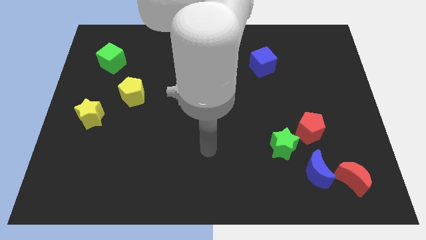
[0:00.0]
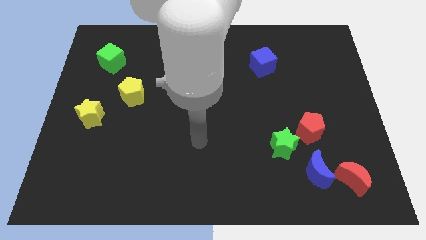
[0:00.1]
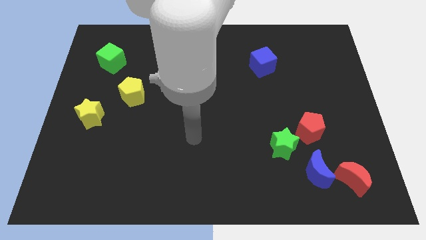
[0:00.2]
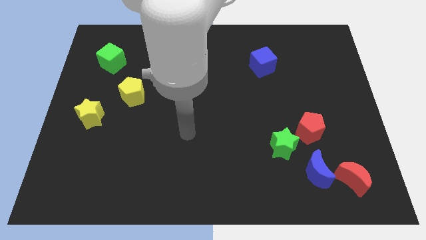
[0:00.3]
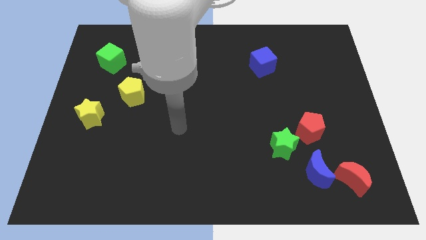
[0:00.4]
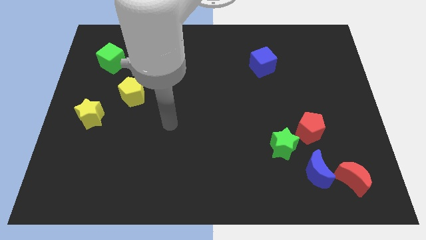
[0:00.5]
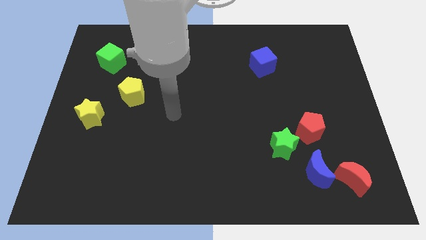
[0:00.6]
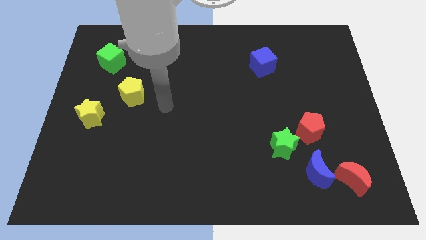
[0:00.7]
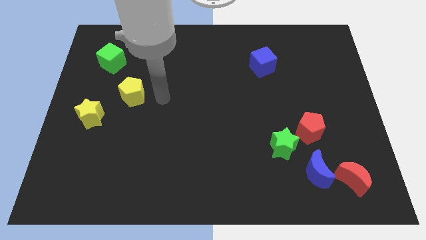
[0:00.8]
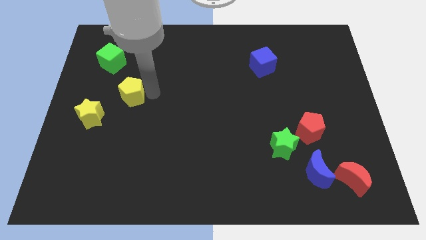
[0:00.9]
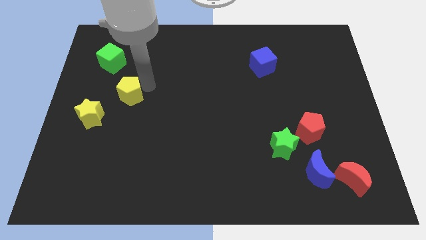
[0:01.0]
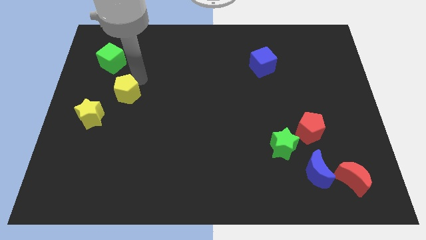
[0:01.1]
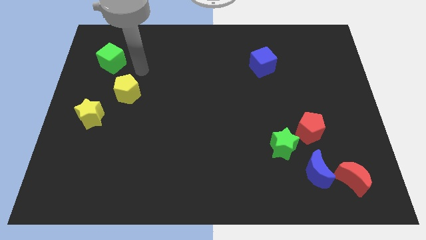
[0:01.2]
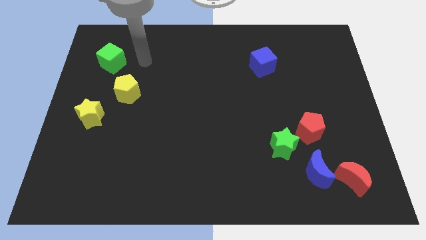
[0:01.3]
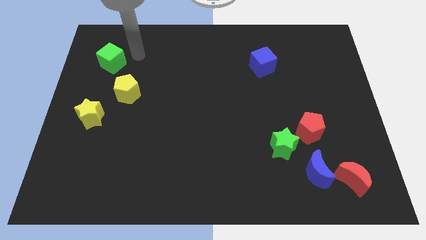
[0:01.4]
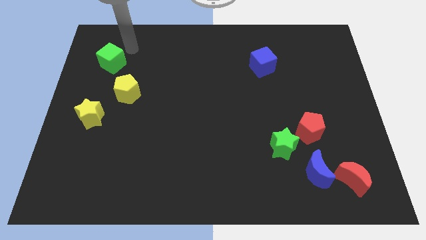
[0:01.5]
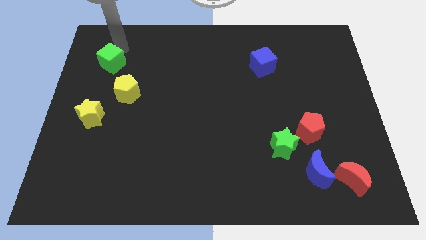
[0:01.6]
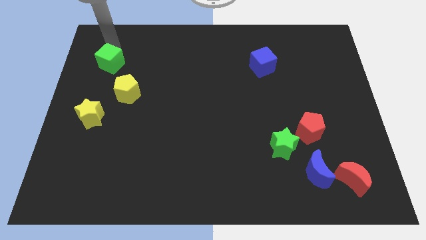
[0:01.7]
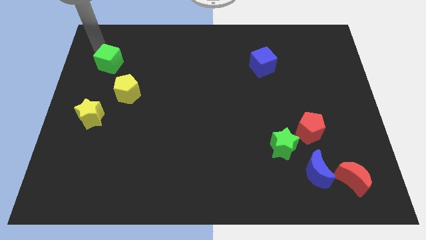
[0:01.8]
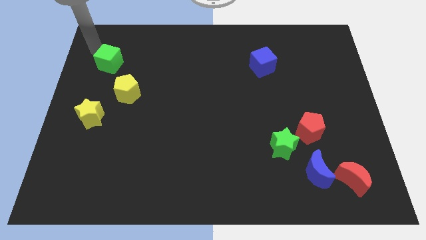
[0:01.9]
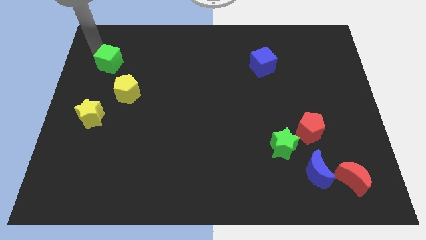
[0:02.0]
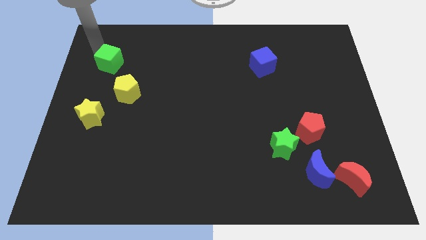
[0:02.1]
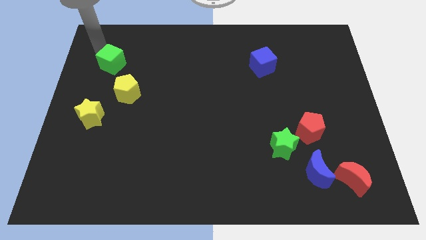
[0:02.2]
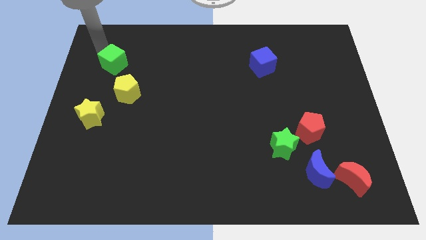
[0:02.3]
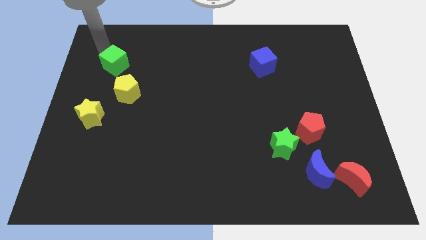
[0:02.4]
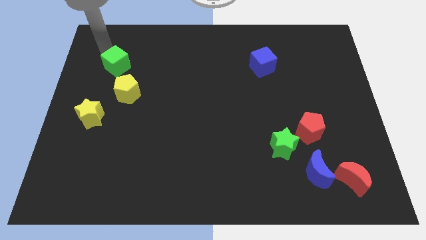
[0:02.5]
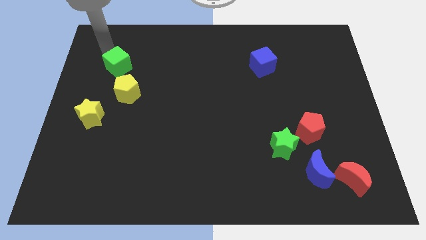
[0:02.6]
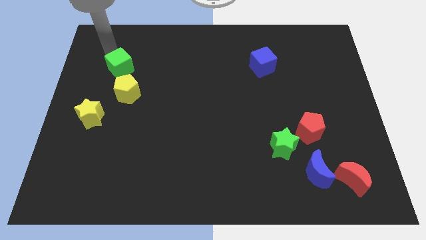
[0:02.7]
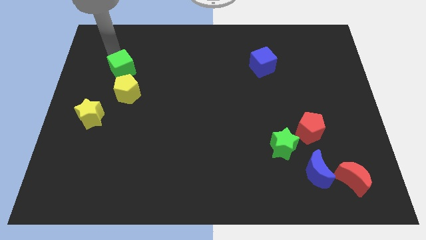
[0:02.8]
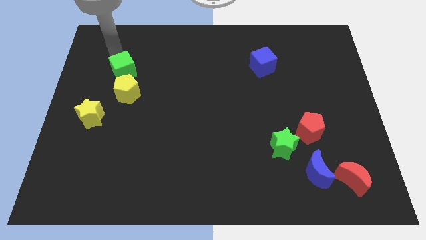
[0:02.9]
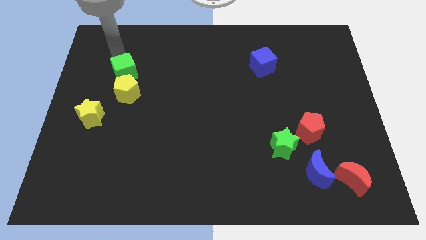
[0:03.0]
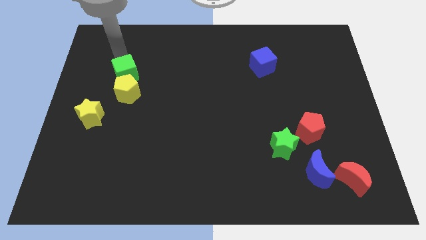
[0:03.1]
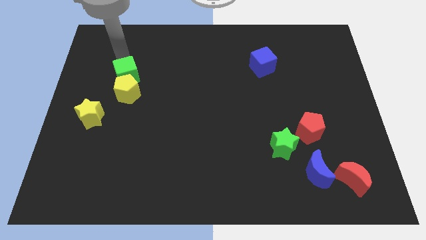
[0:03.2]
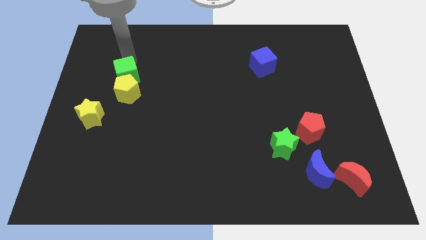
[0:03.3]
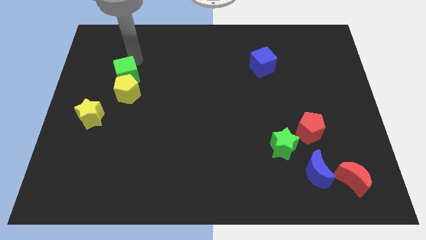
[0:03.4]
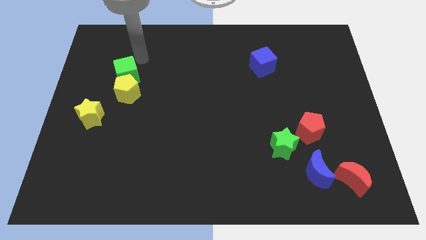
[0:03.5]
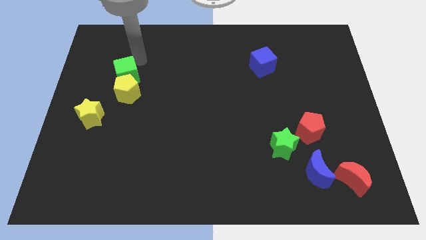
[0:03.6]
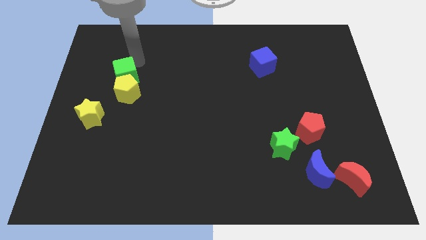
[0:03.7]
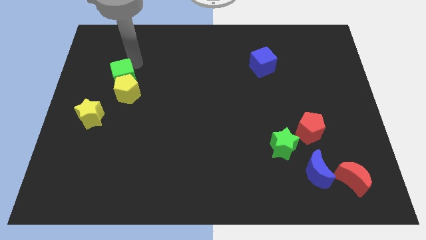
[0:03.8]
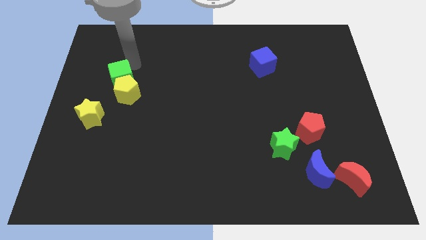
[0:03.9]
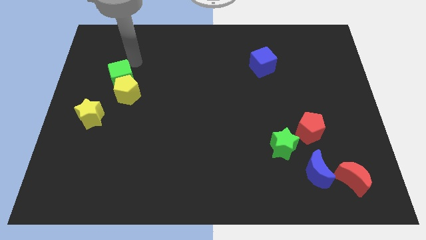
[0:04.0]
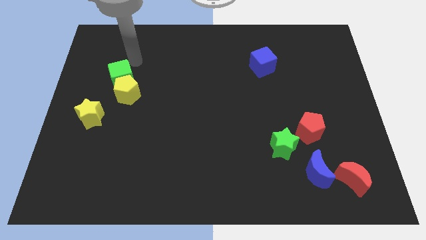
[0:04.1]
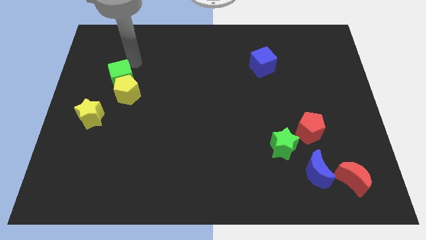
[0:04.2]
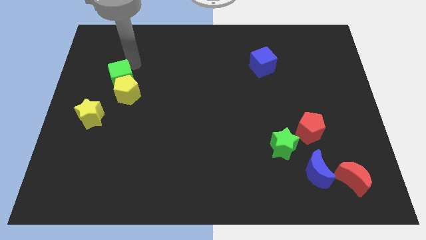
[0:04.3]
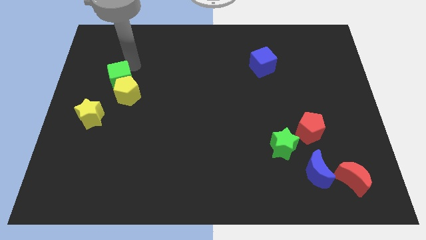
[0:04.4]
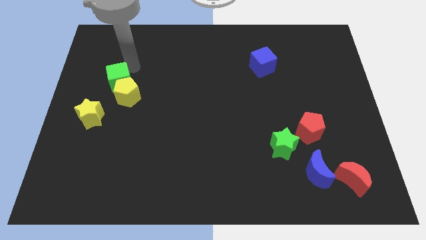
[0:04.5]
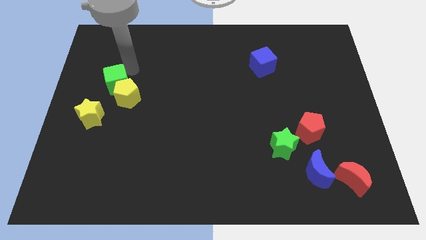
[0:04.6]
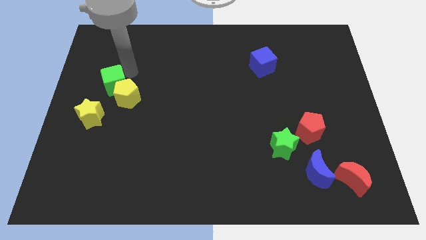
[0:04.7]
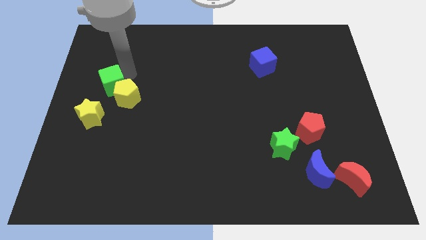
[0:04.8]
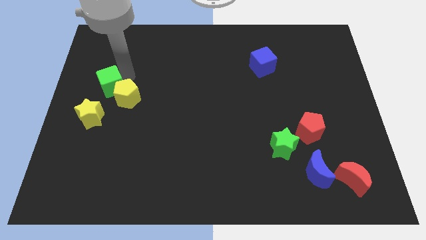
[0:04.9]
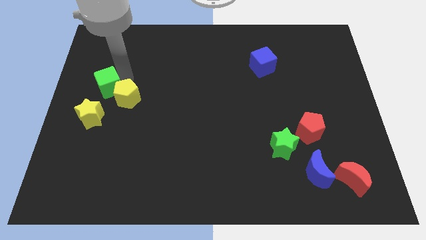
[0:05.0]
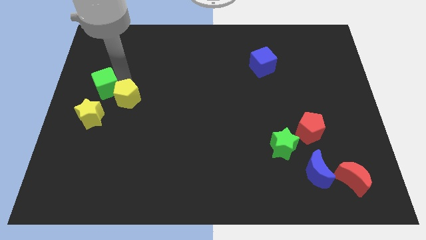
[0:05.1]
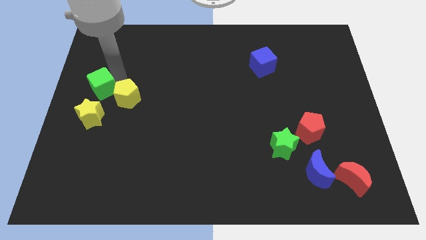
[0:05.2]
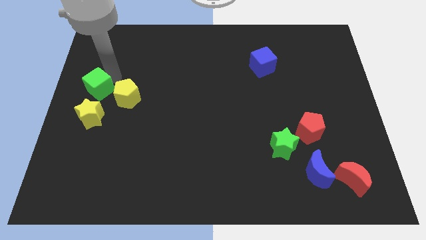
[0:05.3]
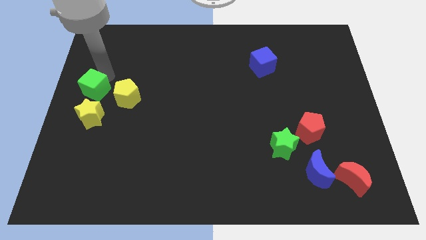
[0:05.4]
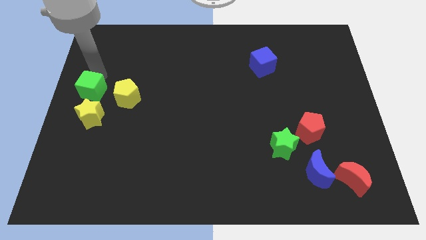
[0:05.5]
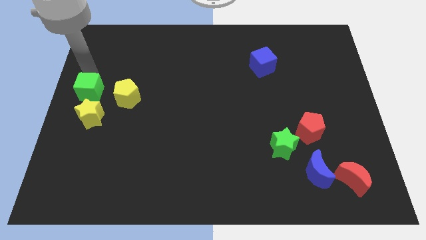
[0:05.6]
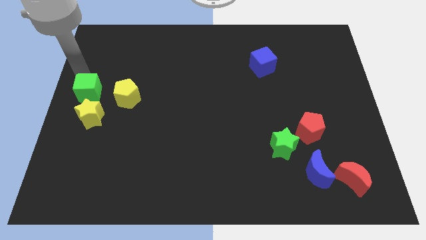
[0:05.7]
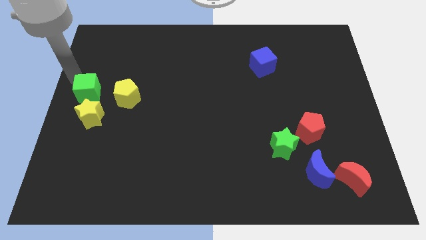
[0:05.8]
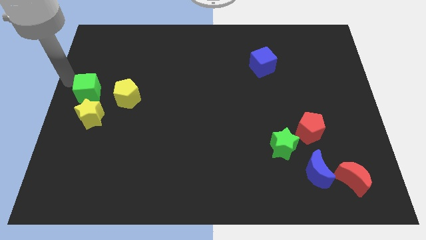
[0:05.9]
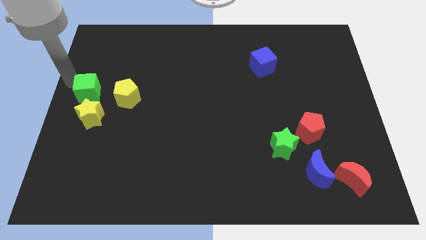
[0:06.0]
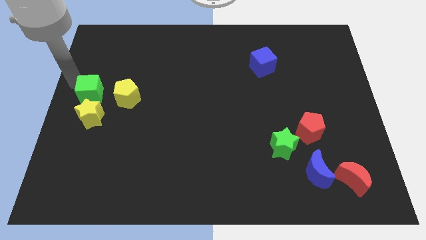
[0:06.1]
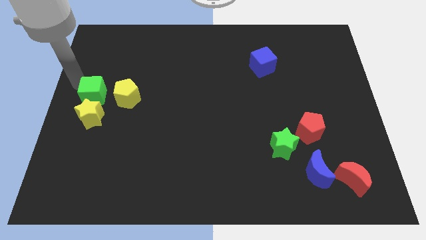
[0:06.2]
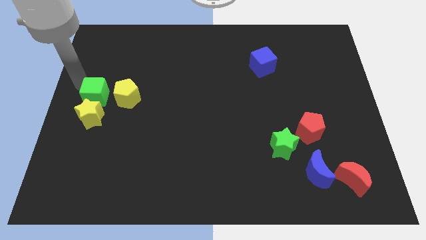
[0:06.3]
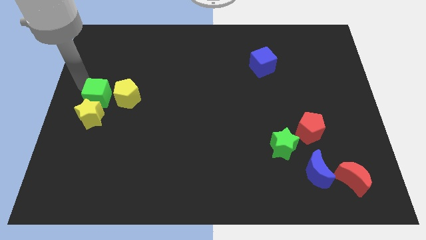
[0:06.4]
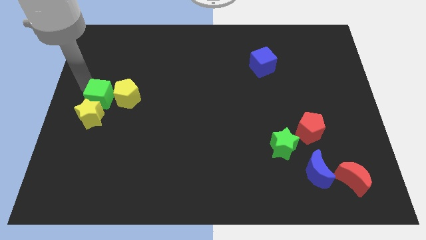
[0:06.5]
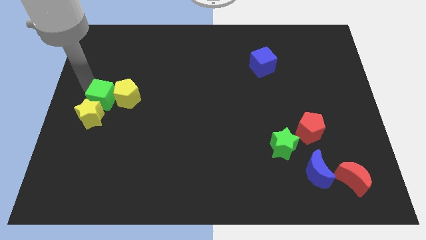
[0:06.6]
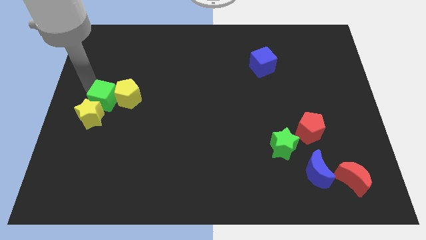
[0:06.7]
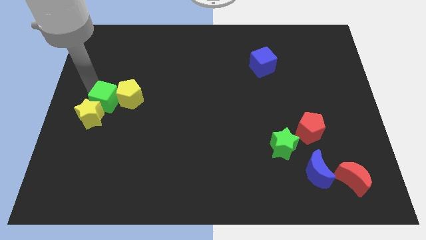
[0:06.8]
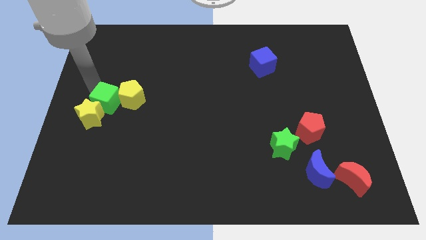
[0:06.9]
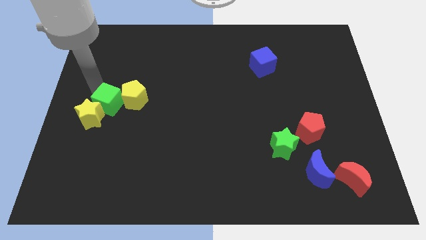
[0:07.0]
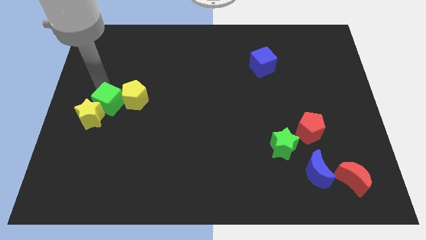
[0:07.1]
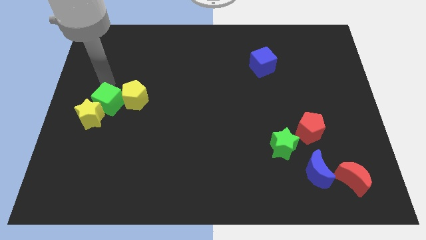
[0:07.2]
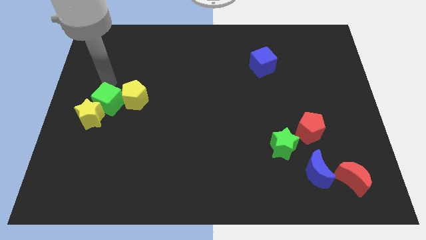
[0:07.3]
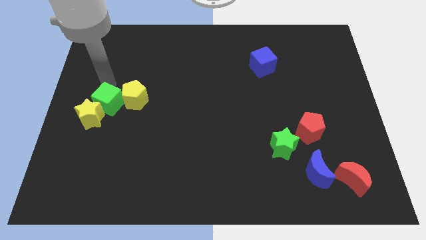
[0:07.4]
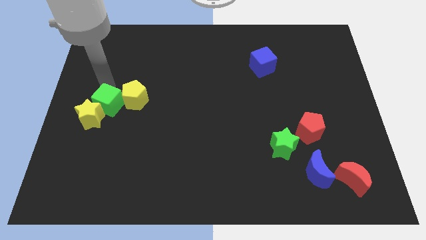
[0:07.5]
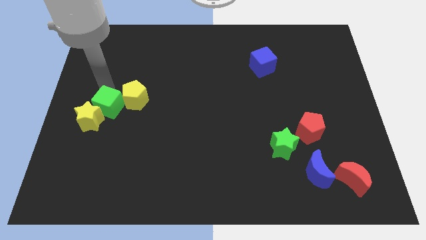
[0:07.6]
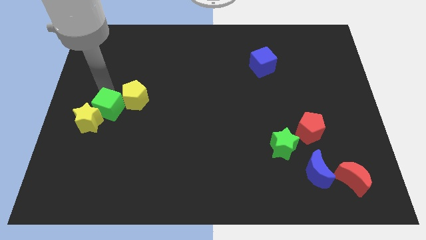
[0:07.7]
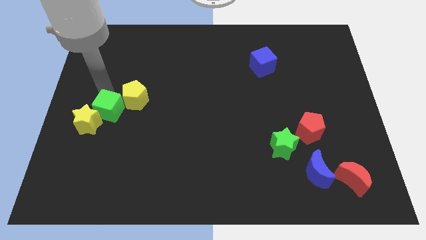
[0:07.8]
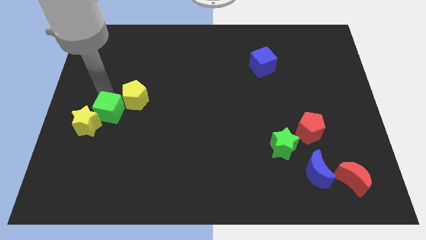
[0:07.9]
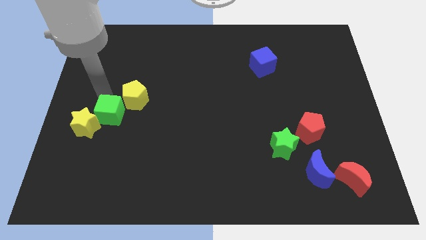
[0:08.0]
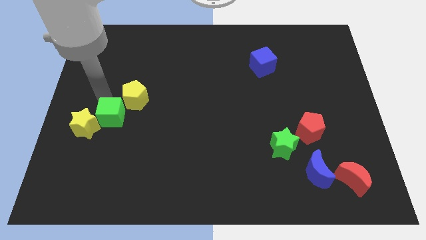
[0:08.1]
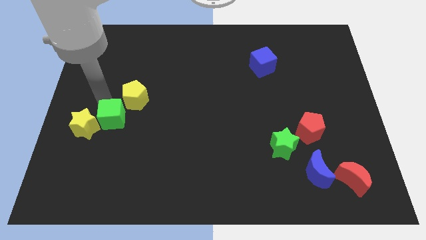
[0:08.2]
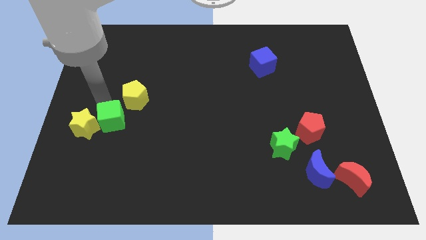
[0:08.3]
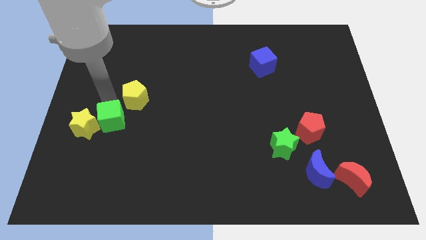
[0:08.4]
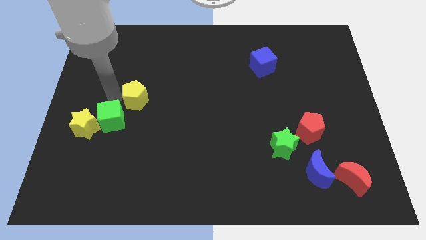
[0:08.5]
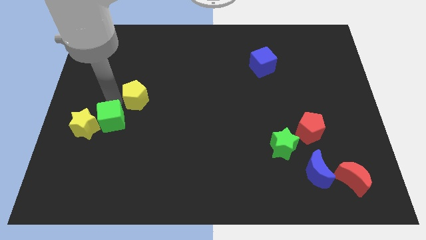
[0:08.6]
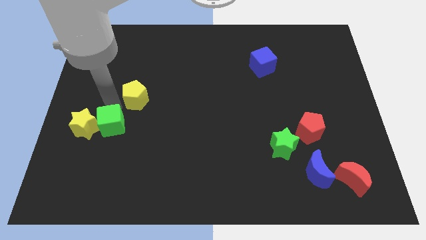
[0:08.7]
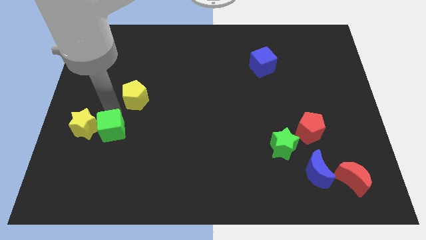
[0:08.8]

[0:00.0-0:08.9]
slide the green cube downwards
